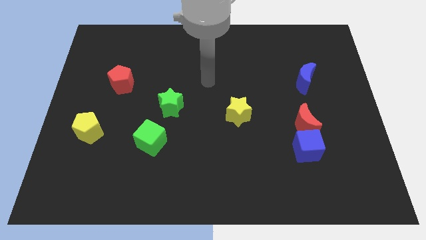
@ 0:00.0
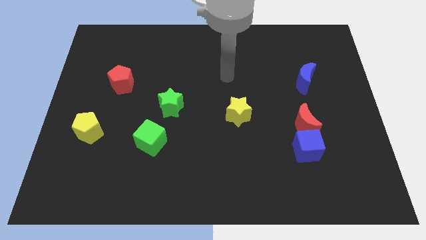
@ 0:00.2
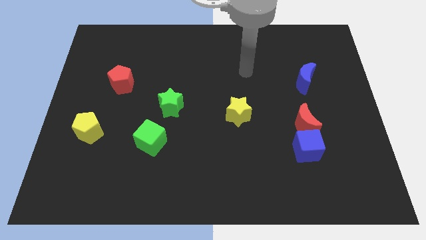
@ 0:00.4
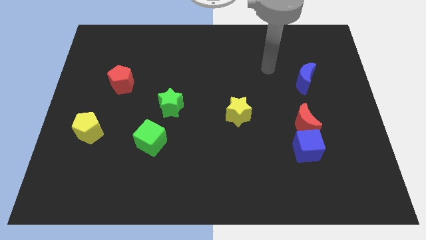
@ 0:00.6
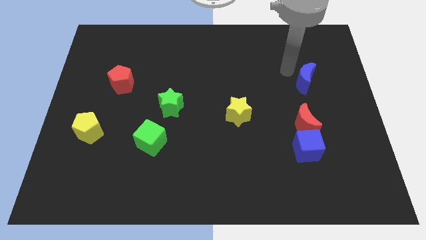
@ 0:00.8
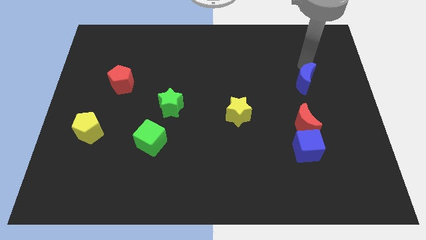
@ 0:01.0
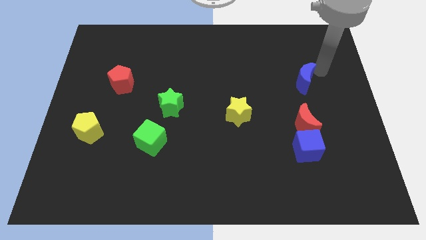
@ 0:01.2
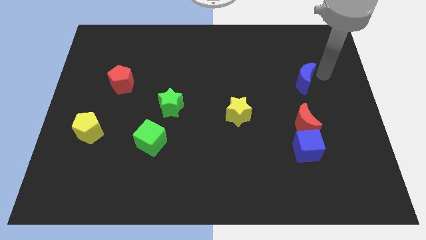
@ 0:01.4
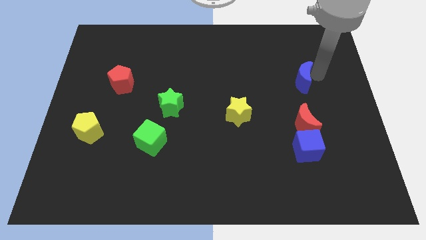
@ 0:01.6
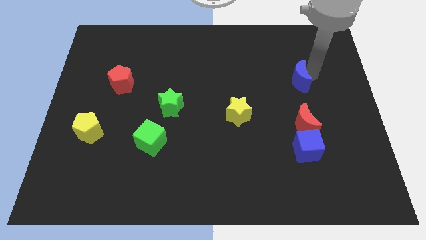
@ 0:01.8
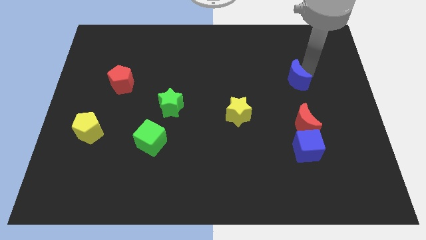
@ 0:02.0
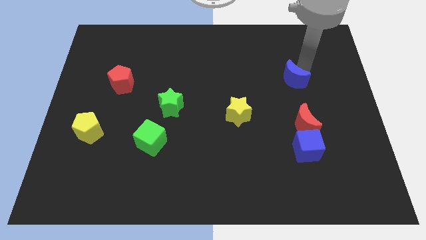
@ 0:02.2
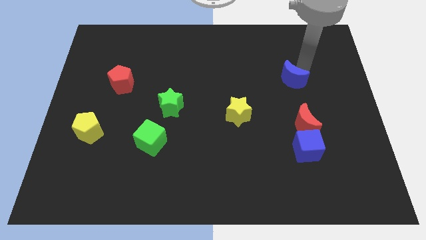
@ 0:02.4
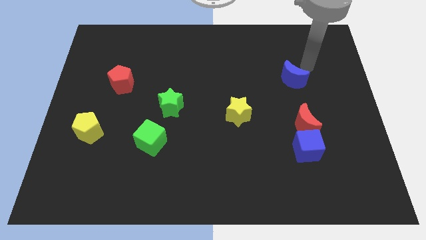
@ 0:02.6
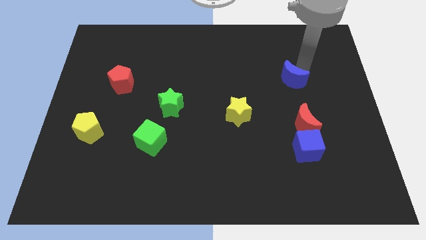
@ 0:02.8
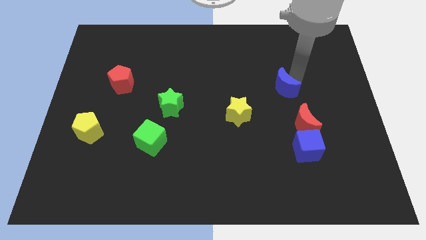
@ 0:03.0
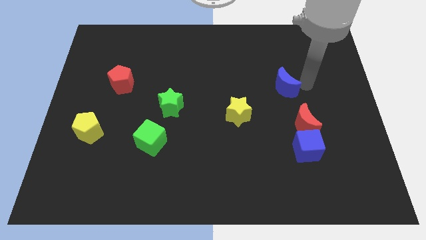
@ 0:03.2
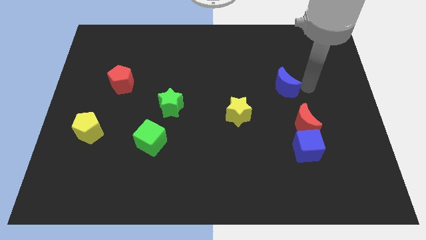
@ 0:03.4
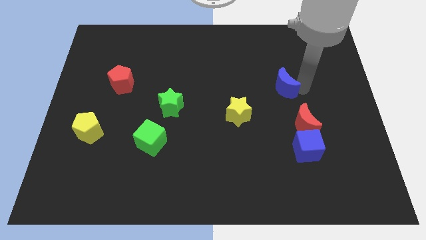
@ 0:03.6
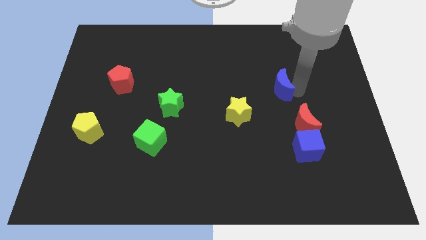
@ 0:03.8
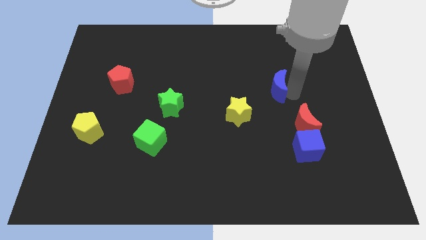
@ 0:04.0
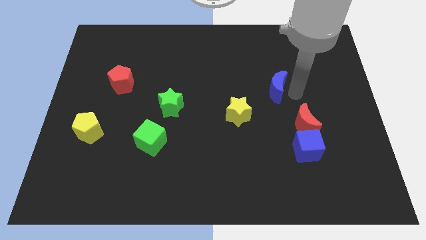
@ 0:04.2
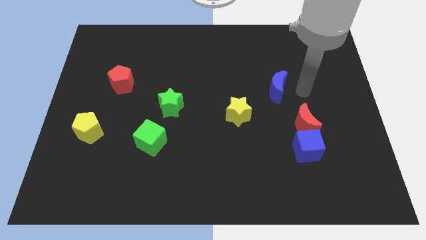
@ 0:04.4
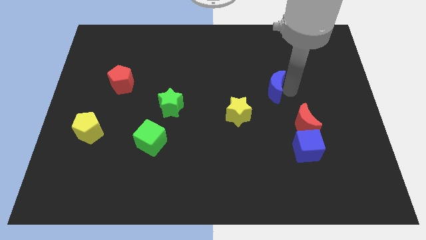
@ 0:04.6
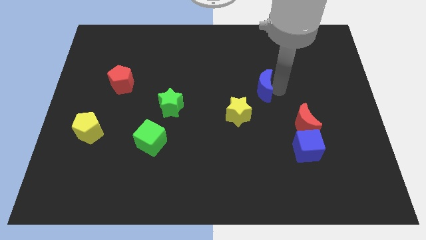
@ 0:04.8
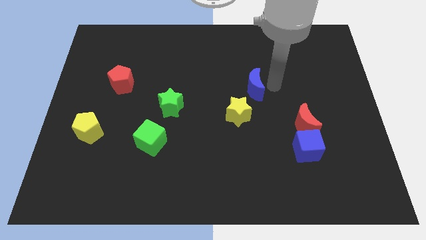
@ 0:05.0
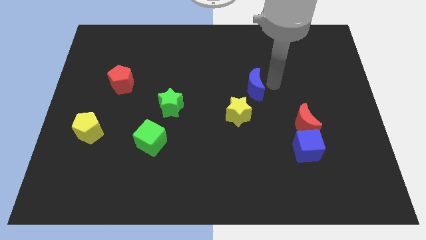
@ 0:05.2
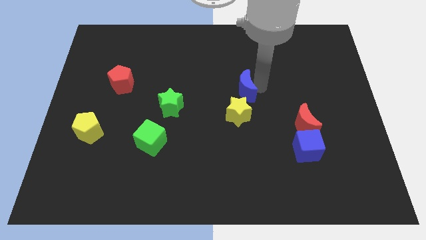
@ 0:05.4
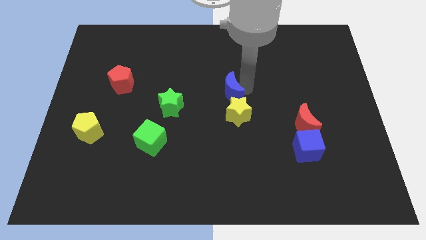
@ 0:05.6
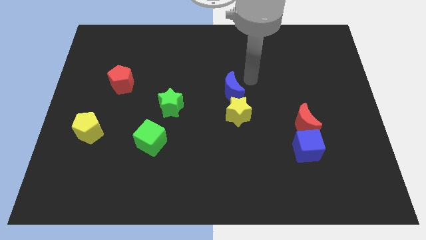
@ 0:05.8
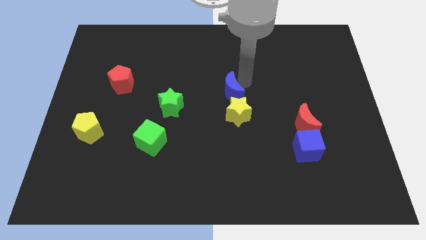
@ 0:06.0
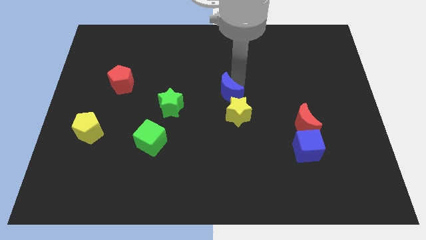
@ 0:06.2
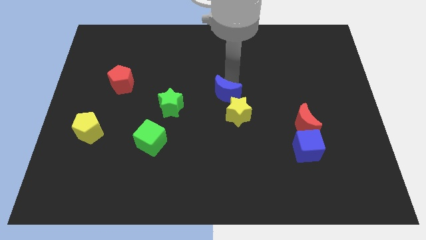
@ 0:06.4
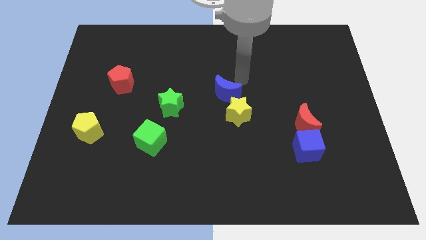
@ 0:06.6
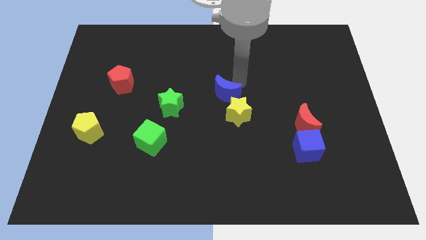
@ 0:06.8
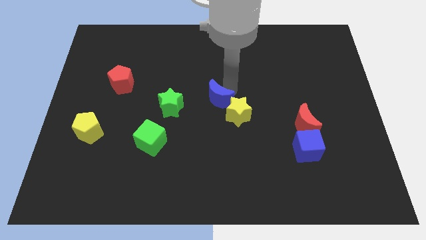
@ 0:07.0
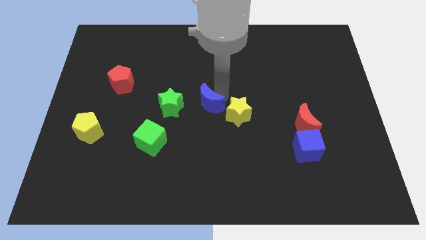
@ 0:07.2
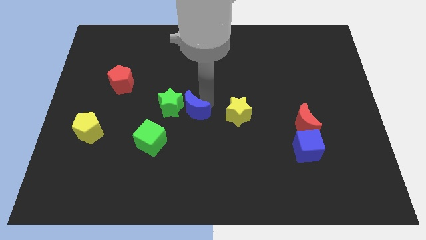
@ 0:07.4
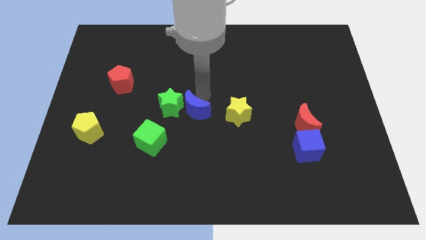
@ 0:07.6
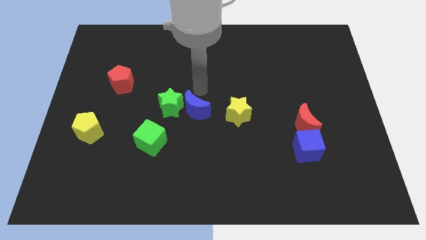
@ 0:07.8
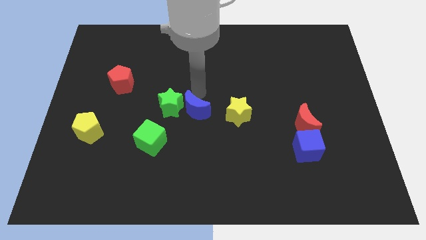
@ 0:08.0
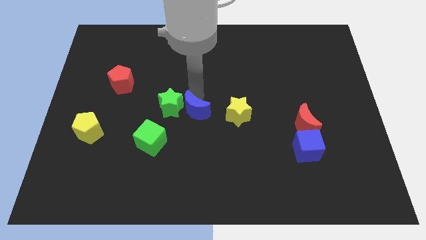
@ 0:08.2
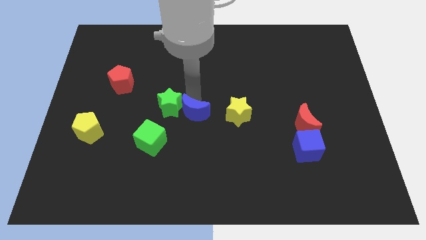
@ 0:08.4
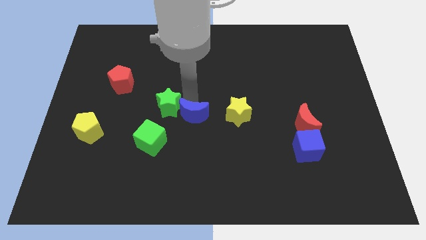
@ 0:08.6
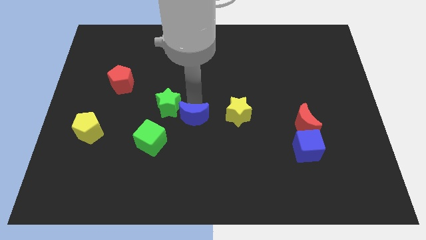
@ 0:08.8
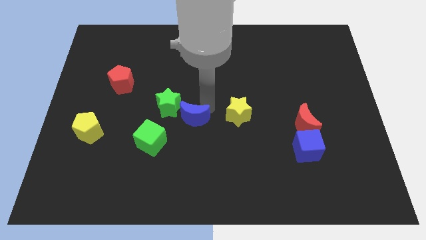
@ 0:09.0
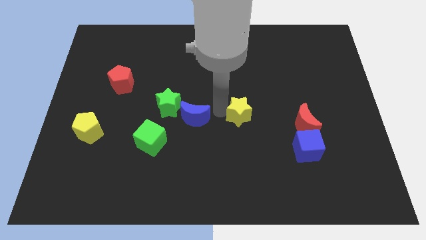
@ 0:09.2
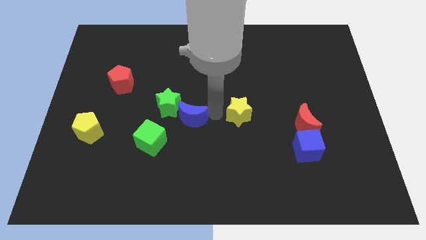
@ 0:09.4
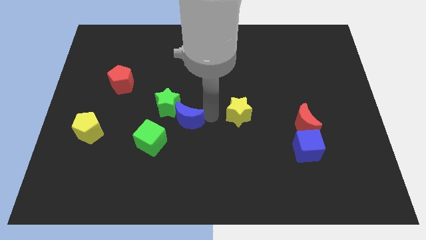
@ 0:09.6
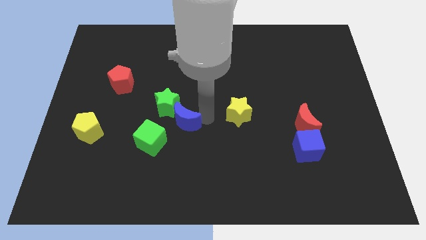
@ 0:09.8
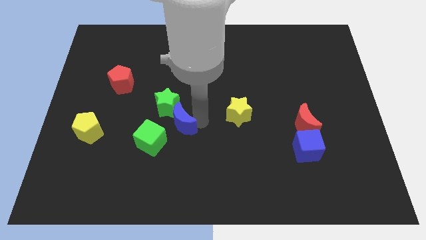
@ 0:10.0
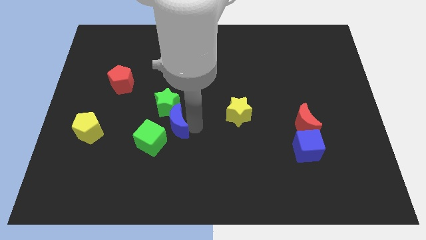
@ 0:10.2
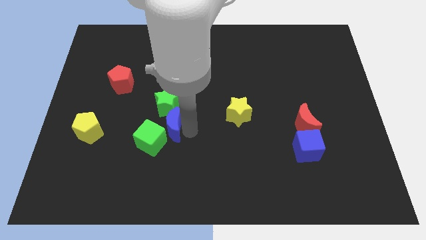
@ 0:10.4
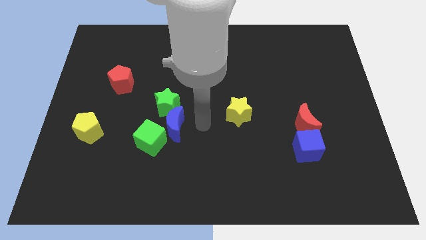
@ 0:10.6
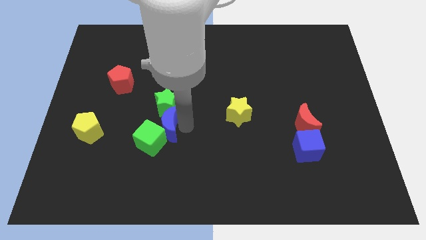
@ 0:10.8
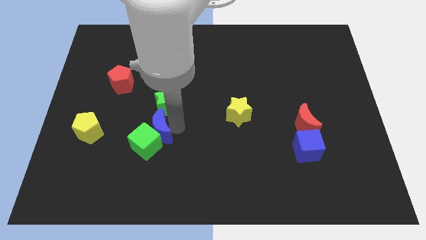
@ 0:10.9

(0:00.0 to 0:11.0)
slide the blue moon right of the yellow pentagon

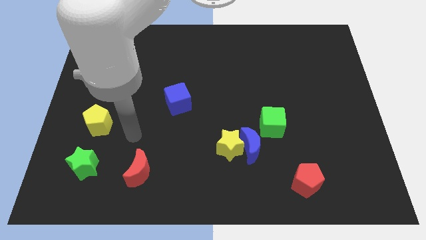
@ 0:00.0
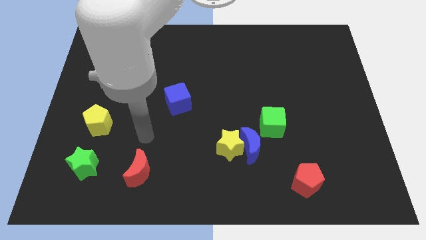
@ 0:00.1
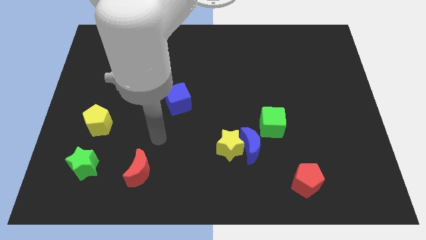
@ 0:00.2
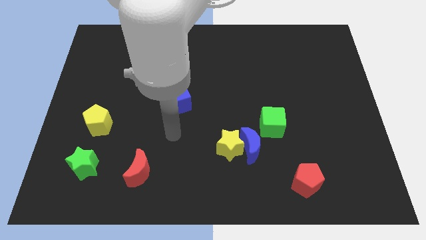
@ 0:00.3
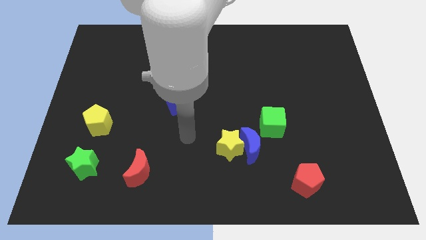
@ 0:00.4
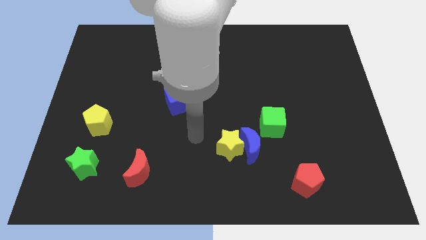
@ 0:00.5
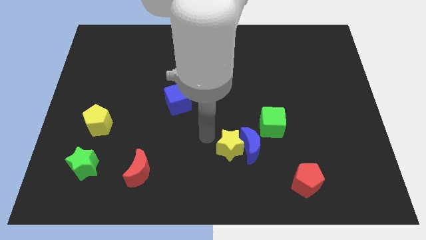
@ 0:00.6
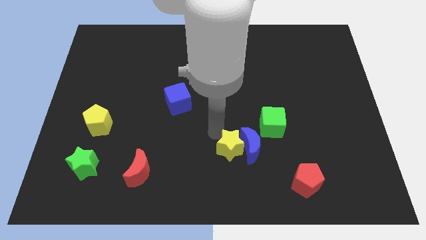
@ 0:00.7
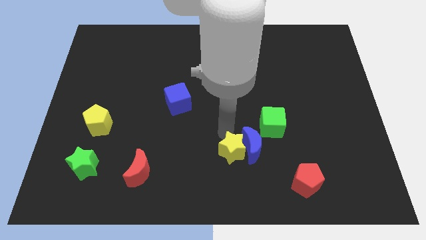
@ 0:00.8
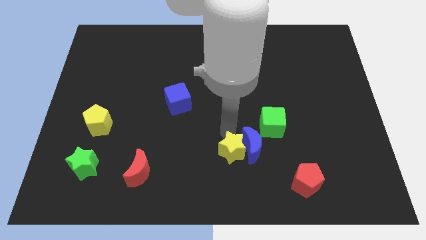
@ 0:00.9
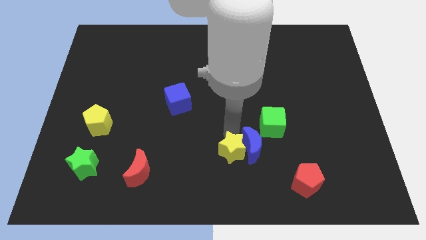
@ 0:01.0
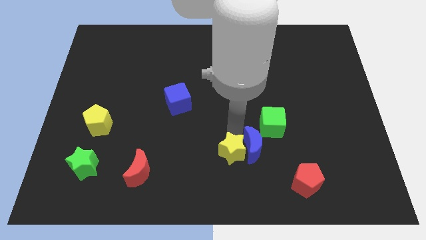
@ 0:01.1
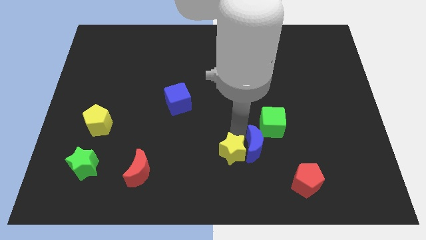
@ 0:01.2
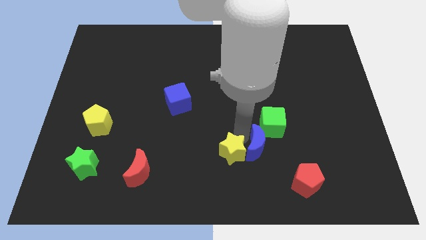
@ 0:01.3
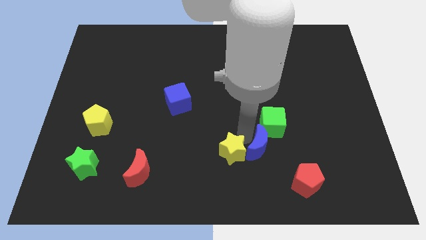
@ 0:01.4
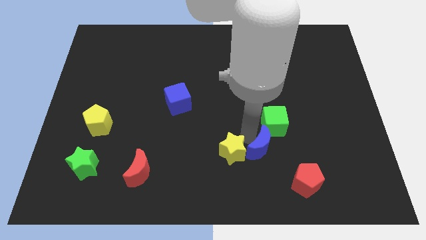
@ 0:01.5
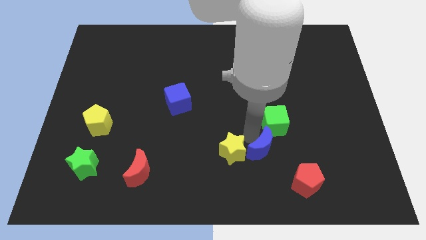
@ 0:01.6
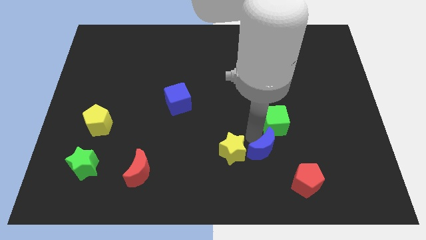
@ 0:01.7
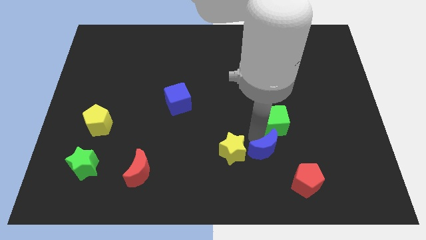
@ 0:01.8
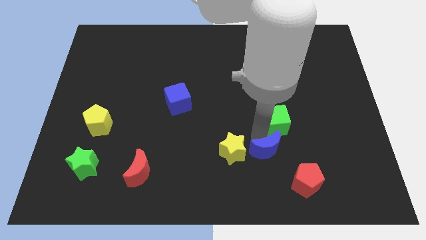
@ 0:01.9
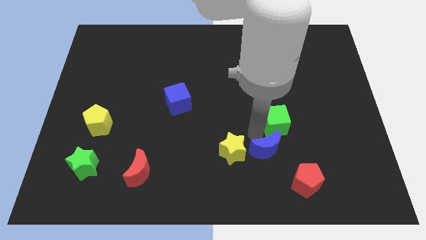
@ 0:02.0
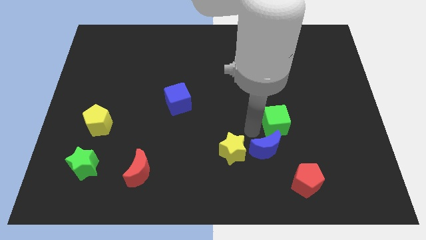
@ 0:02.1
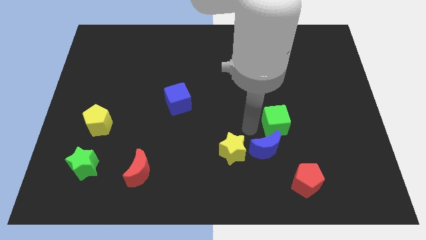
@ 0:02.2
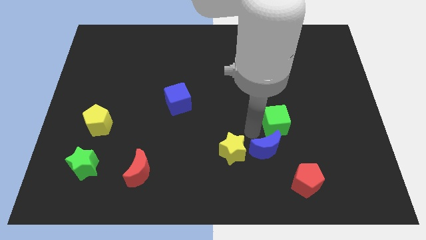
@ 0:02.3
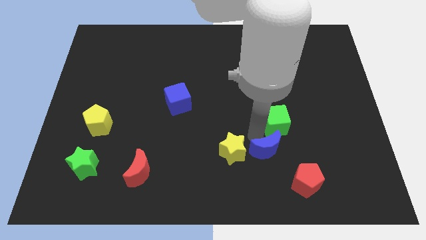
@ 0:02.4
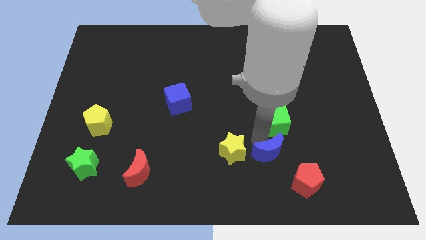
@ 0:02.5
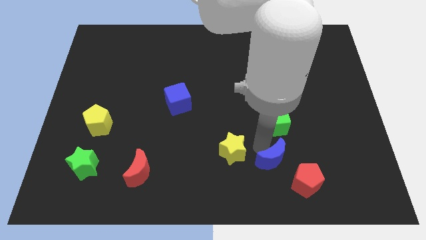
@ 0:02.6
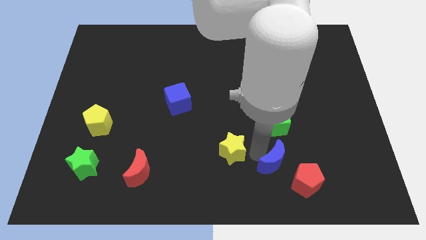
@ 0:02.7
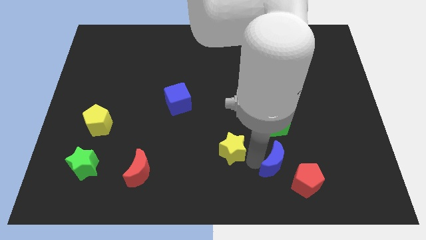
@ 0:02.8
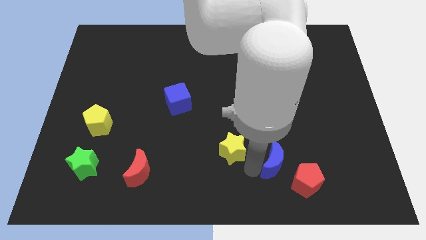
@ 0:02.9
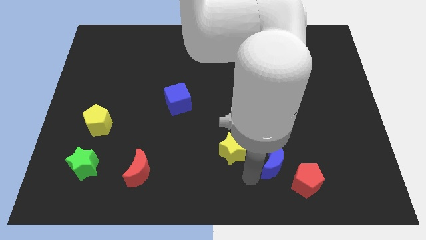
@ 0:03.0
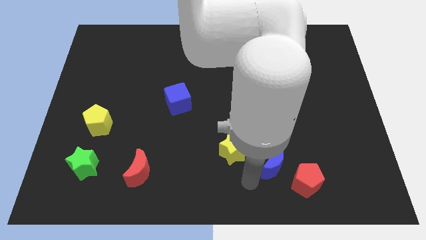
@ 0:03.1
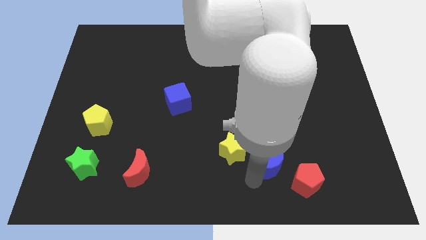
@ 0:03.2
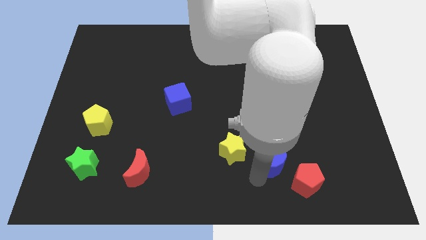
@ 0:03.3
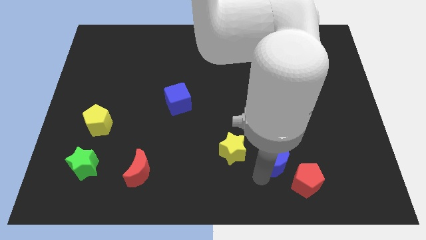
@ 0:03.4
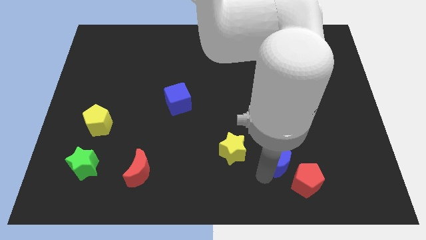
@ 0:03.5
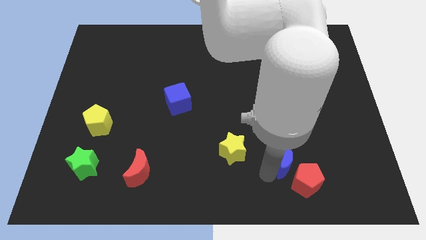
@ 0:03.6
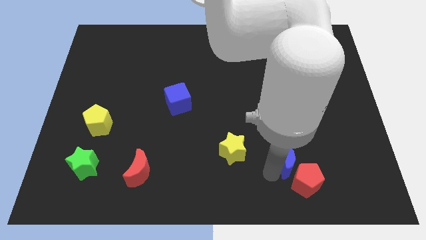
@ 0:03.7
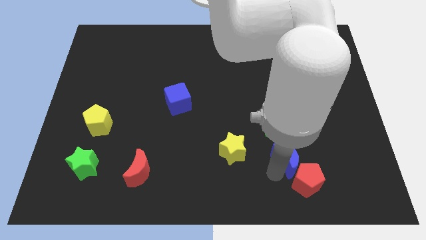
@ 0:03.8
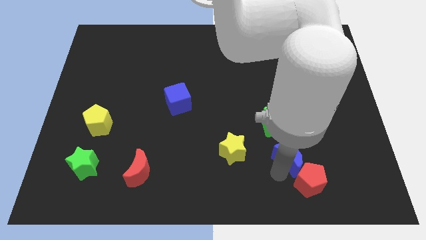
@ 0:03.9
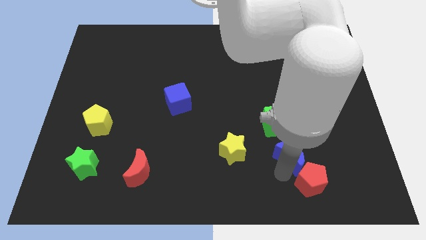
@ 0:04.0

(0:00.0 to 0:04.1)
push the blue moon to the bottom right of the green cube
